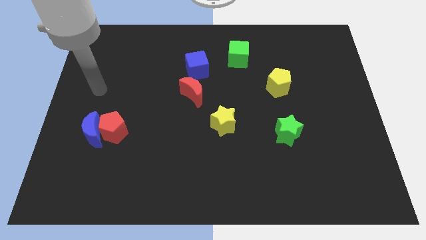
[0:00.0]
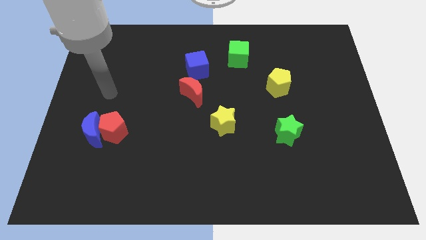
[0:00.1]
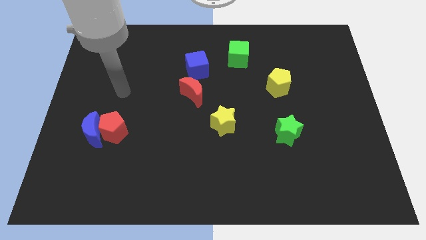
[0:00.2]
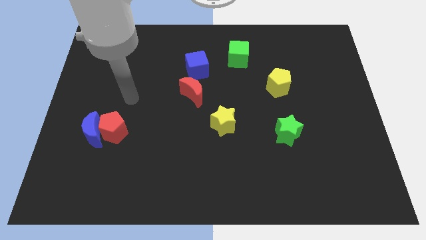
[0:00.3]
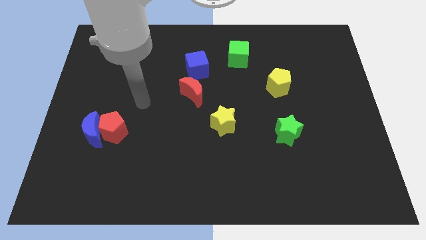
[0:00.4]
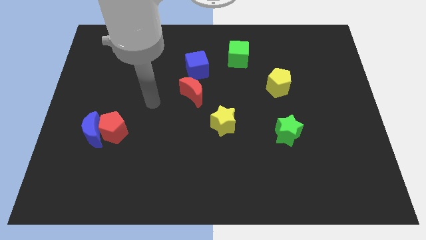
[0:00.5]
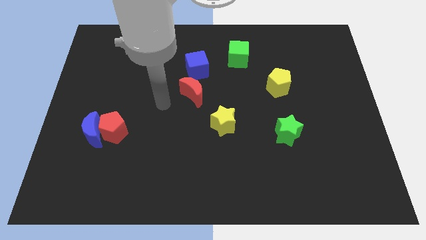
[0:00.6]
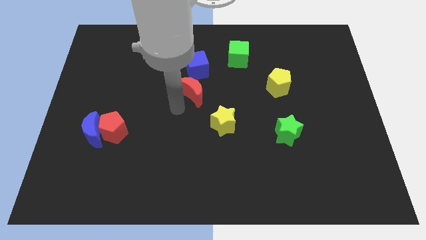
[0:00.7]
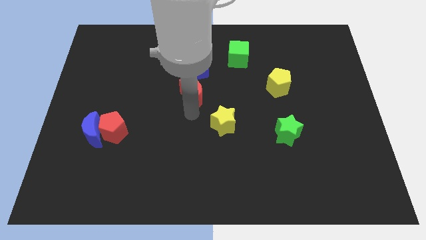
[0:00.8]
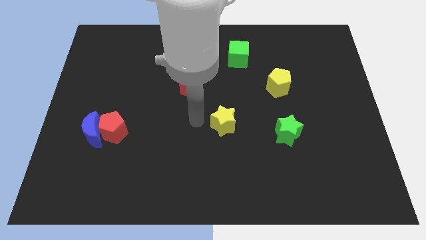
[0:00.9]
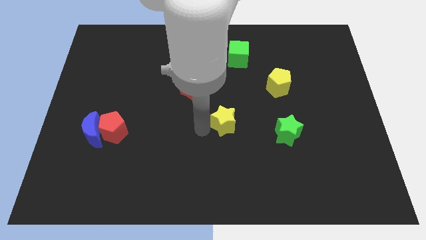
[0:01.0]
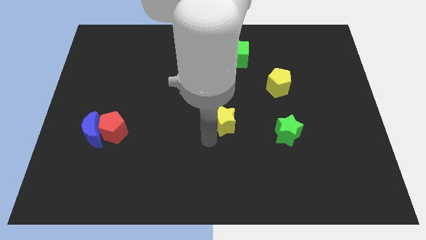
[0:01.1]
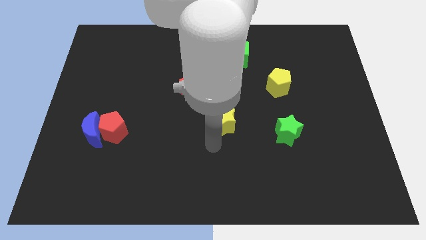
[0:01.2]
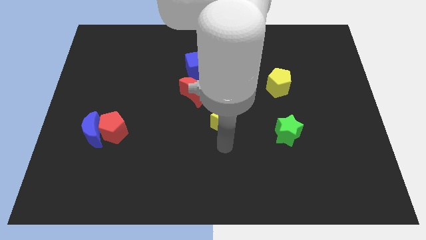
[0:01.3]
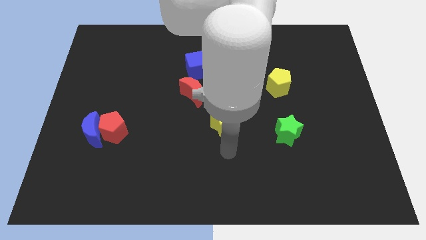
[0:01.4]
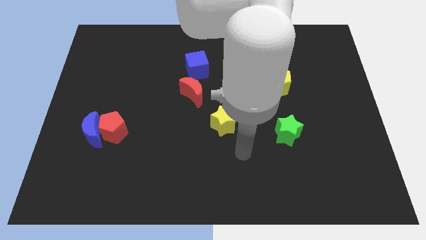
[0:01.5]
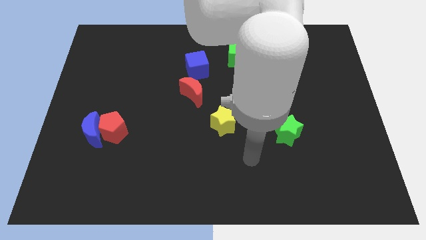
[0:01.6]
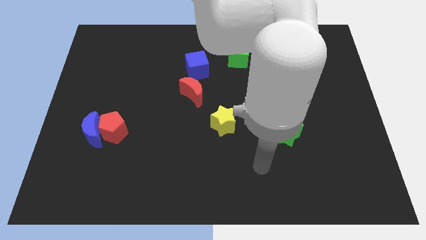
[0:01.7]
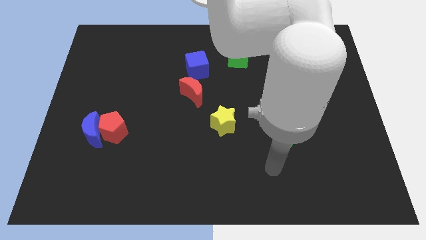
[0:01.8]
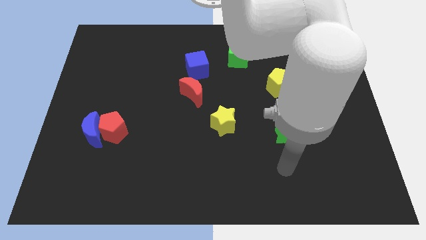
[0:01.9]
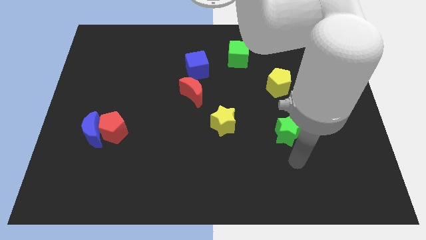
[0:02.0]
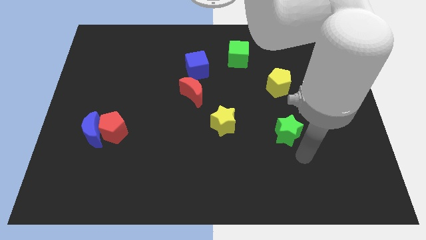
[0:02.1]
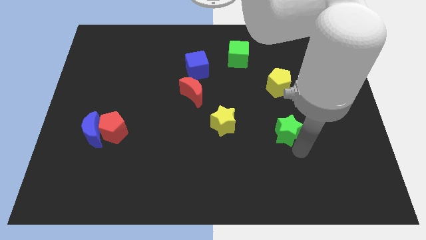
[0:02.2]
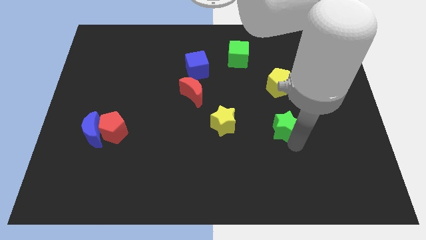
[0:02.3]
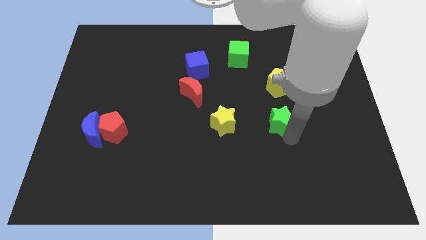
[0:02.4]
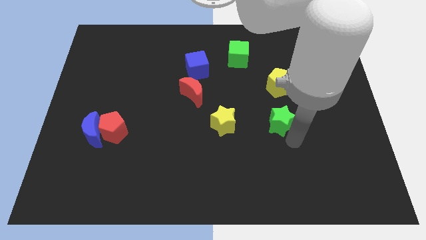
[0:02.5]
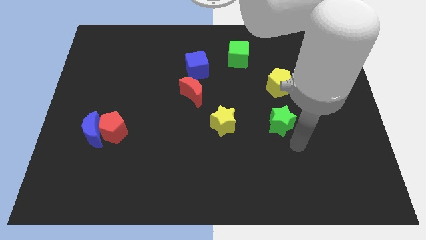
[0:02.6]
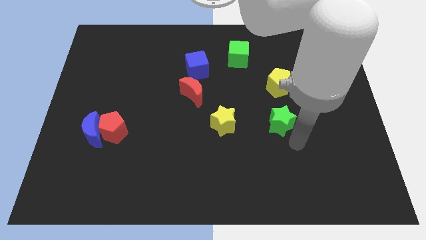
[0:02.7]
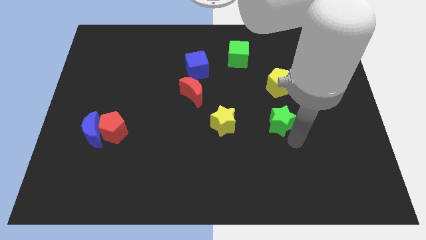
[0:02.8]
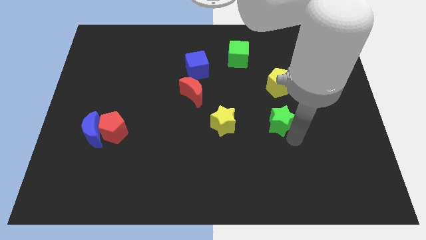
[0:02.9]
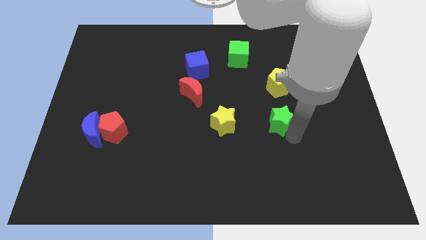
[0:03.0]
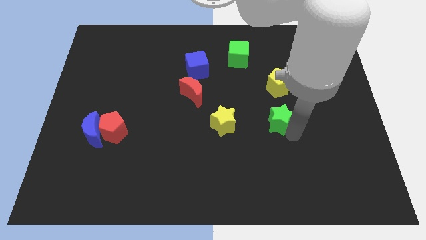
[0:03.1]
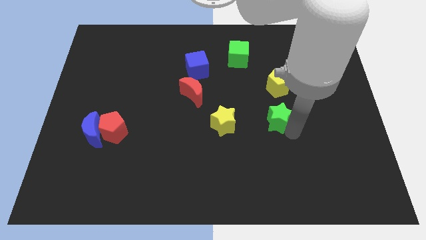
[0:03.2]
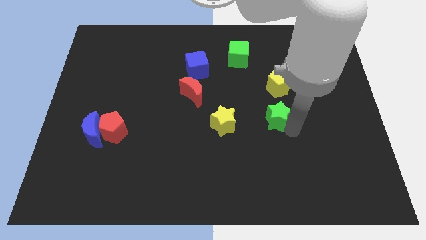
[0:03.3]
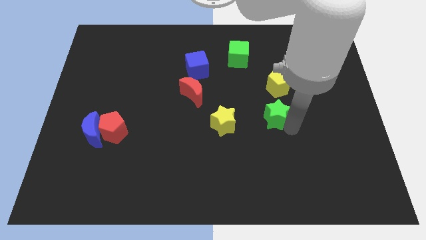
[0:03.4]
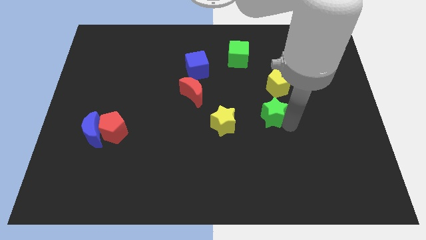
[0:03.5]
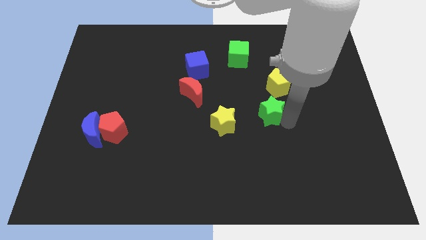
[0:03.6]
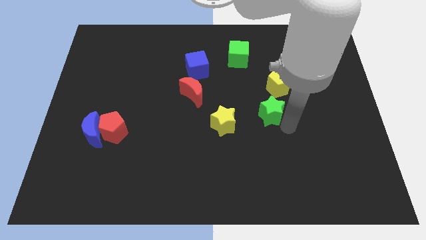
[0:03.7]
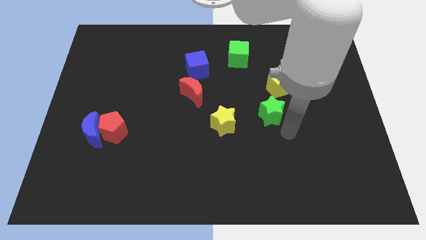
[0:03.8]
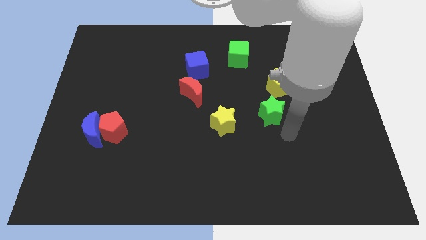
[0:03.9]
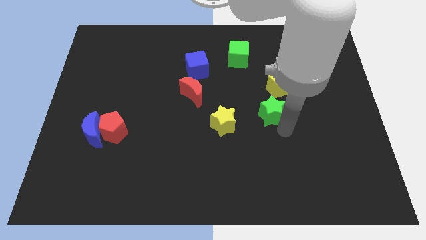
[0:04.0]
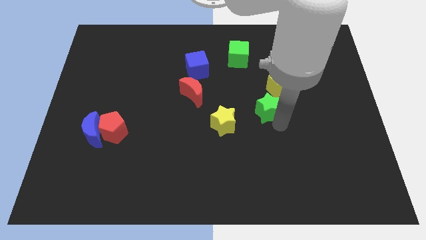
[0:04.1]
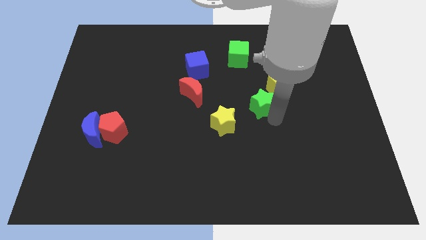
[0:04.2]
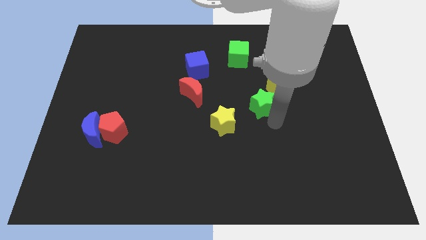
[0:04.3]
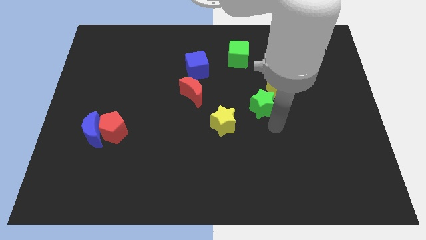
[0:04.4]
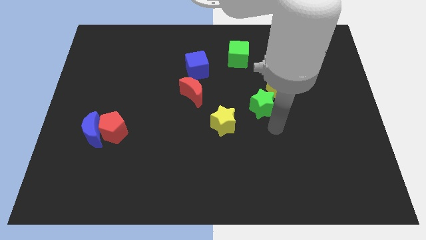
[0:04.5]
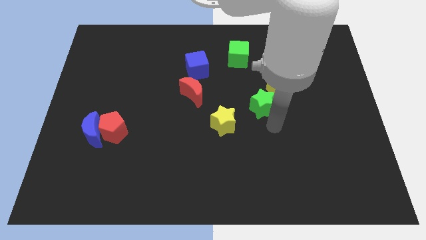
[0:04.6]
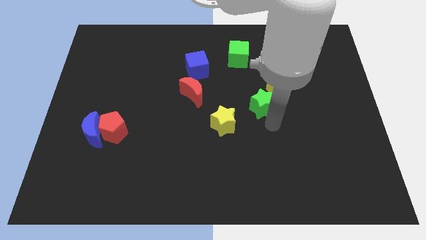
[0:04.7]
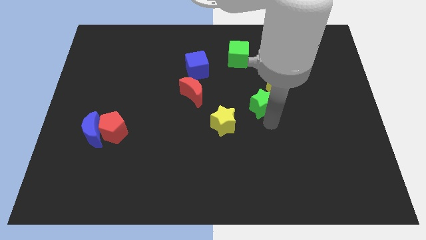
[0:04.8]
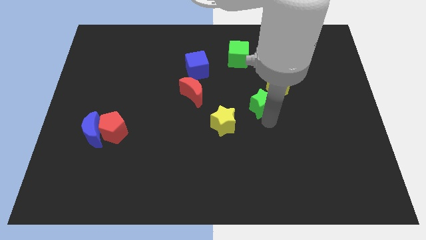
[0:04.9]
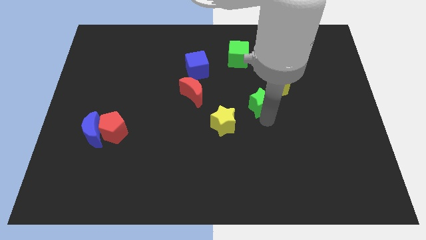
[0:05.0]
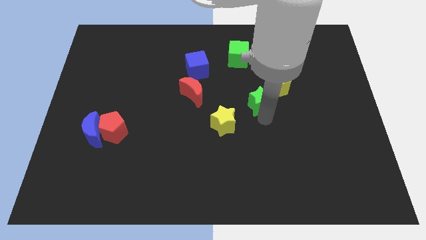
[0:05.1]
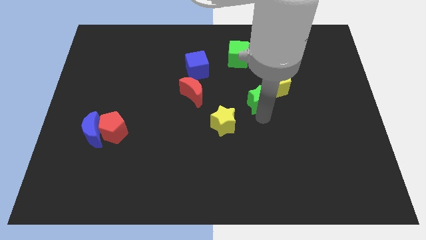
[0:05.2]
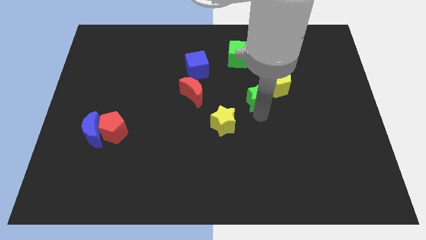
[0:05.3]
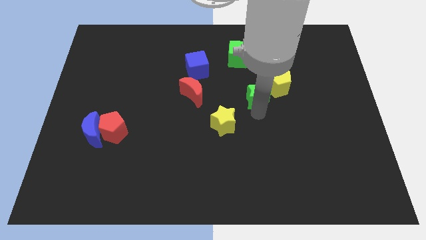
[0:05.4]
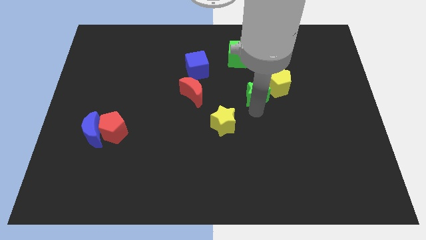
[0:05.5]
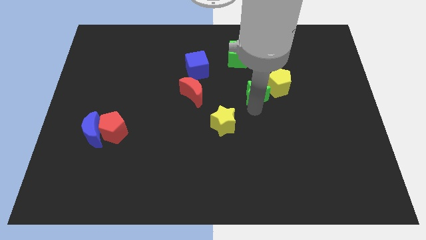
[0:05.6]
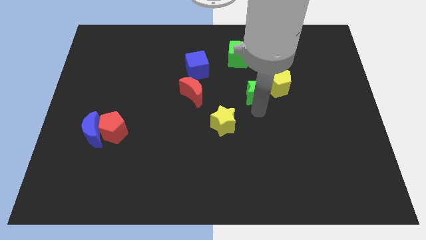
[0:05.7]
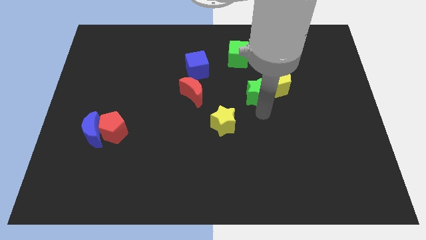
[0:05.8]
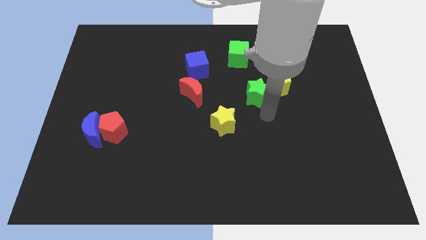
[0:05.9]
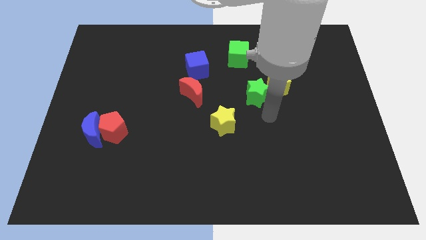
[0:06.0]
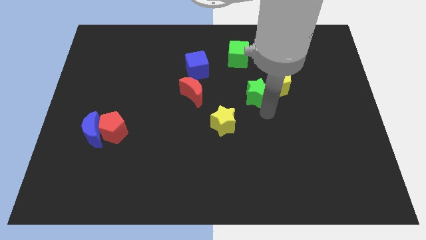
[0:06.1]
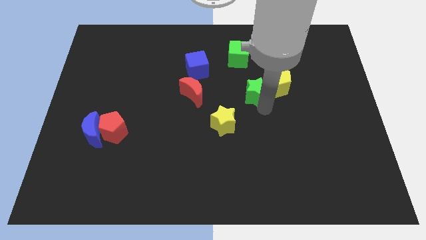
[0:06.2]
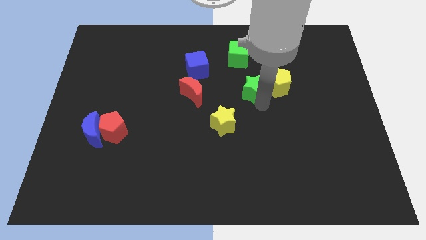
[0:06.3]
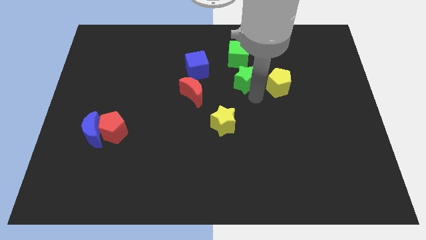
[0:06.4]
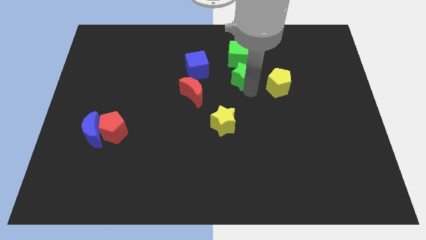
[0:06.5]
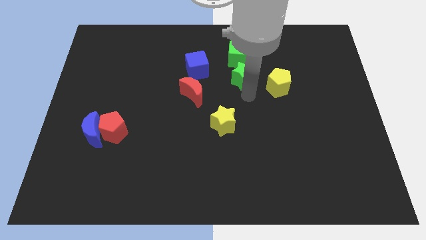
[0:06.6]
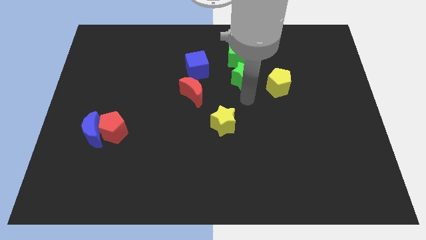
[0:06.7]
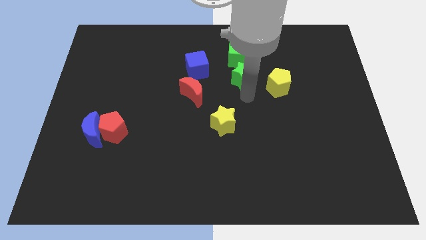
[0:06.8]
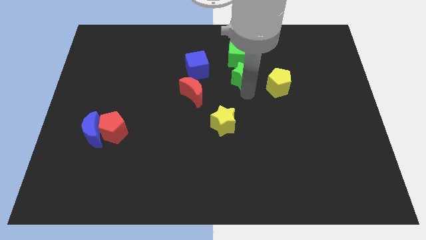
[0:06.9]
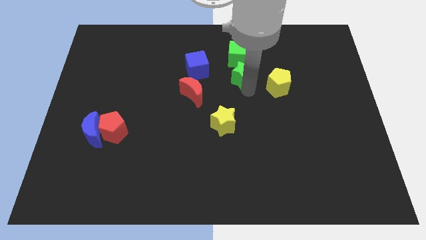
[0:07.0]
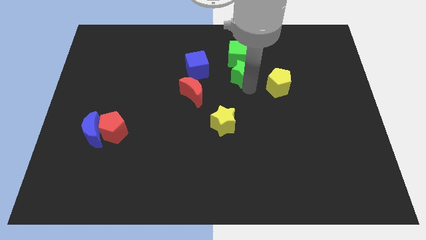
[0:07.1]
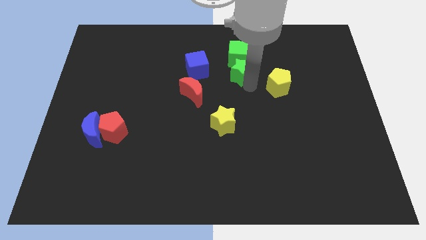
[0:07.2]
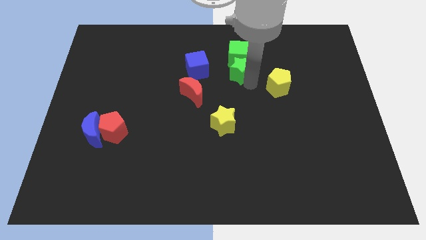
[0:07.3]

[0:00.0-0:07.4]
push the green star close to the green cube

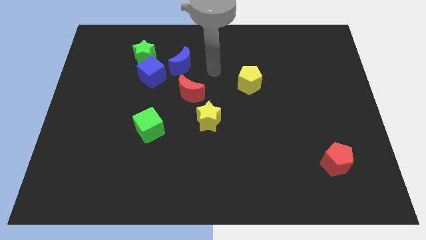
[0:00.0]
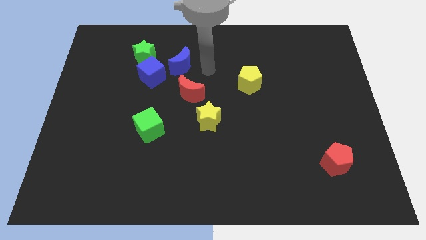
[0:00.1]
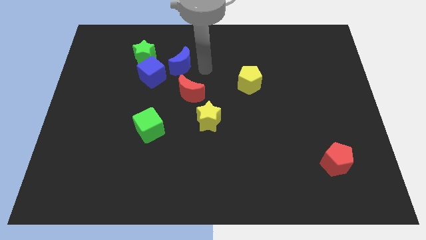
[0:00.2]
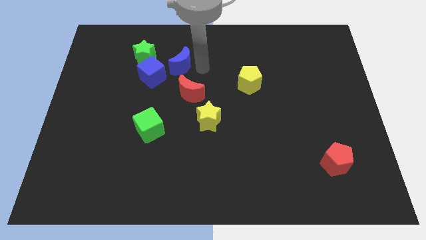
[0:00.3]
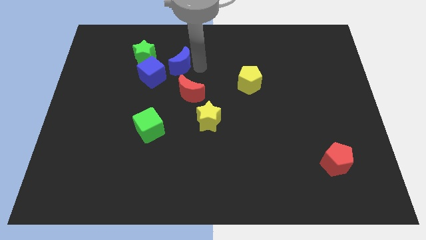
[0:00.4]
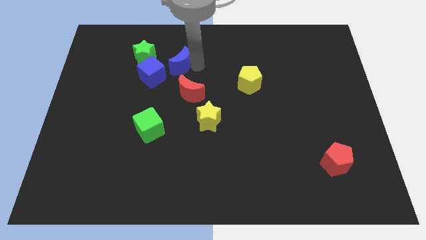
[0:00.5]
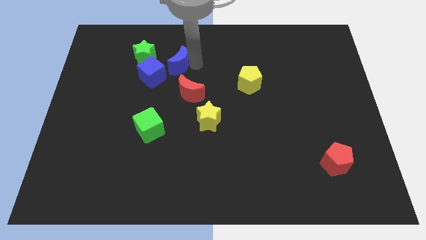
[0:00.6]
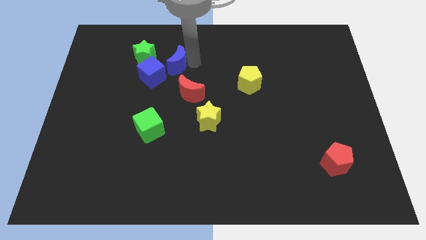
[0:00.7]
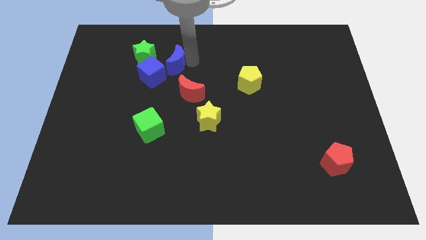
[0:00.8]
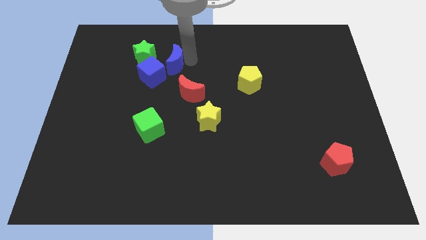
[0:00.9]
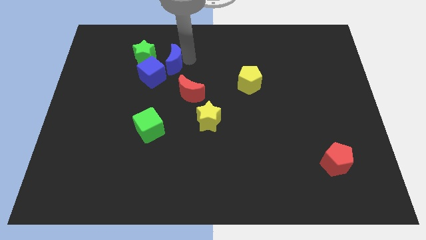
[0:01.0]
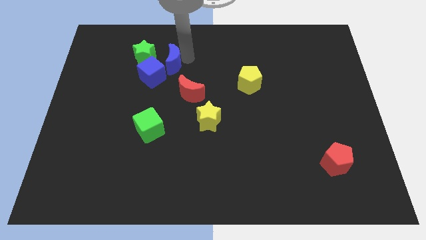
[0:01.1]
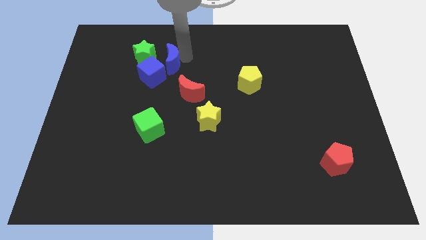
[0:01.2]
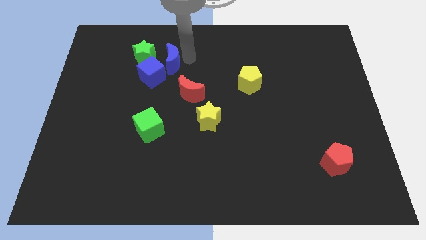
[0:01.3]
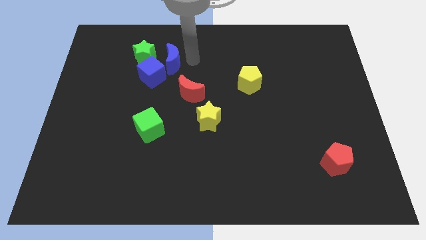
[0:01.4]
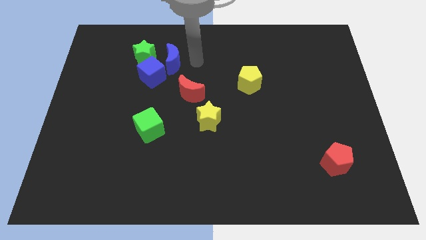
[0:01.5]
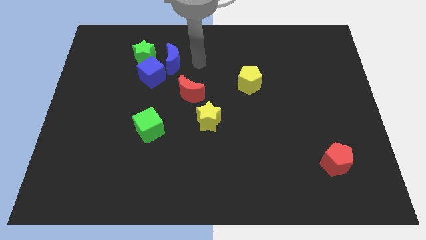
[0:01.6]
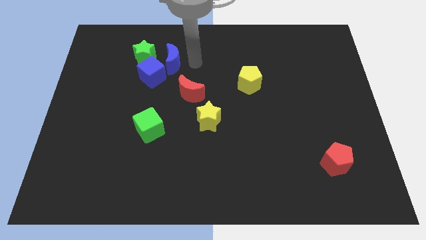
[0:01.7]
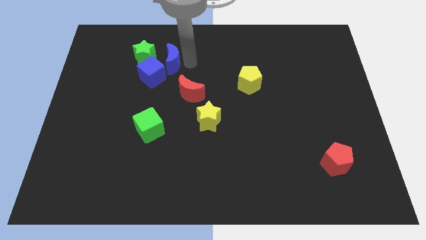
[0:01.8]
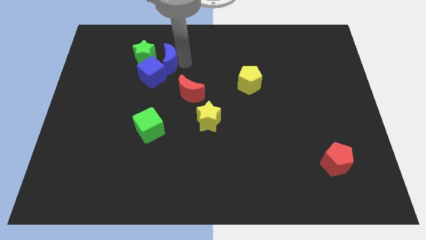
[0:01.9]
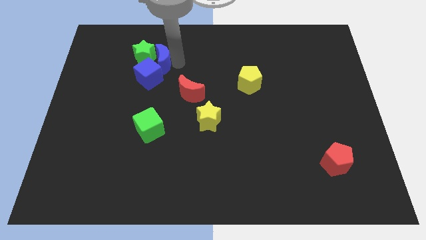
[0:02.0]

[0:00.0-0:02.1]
slide the blue moon next to the green star
